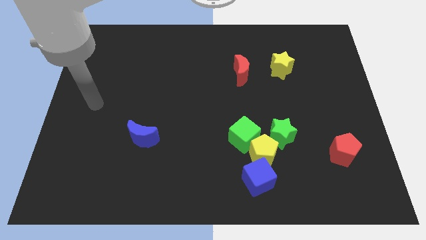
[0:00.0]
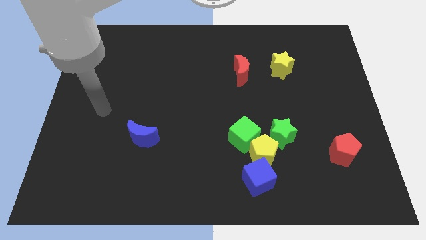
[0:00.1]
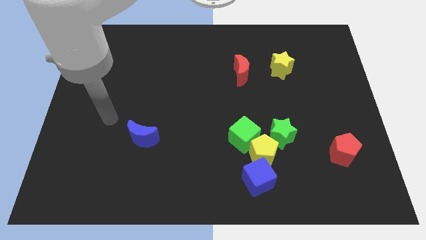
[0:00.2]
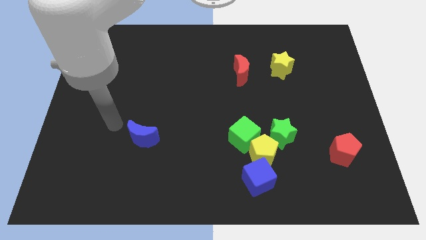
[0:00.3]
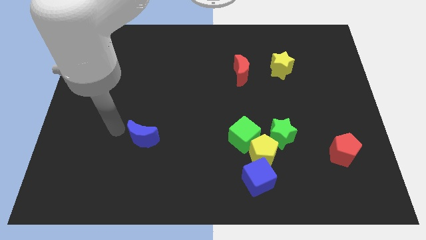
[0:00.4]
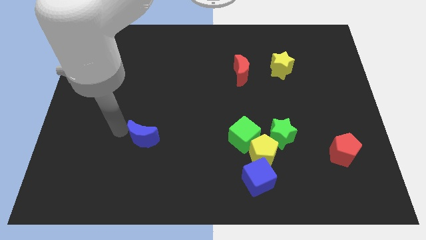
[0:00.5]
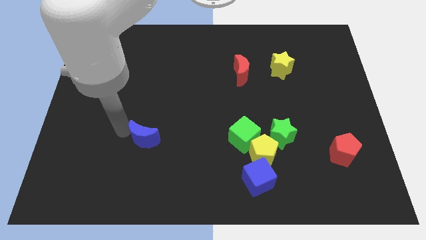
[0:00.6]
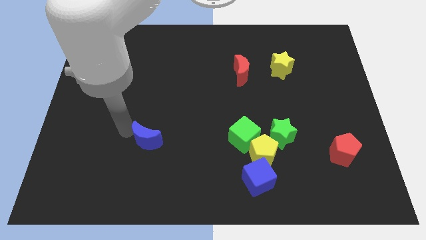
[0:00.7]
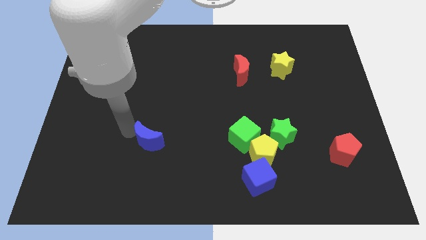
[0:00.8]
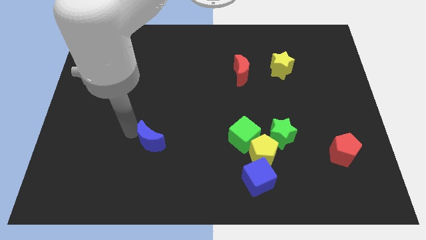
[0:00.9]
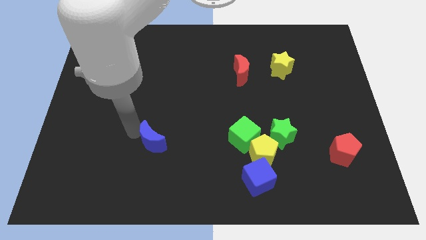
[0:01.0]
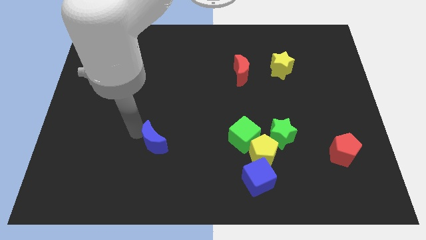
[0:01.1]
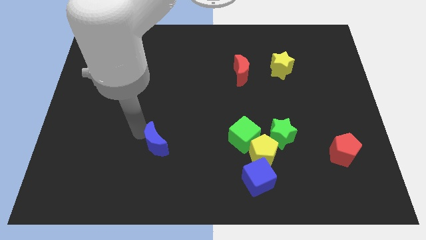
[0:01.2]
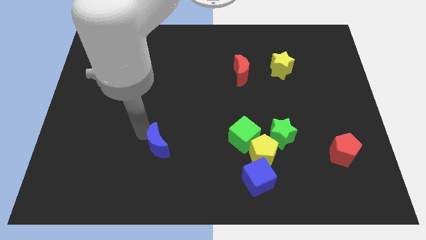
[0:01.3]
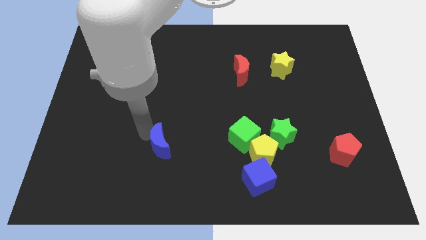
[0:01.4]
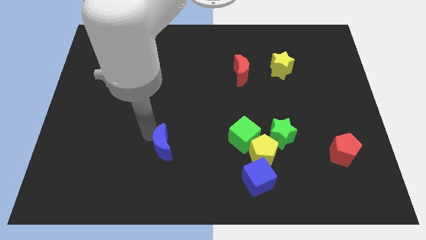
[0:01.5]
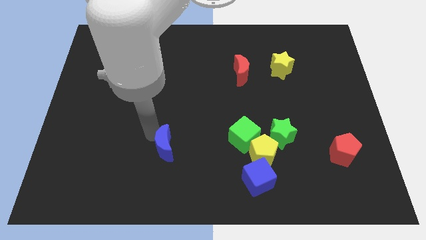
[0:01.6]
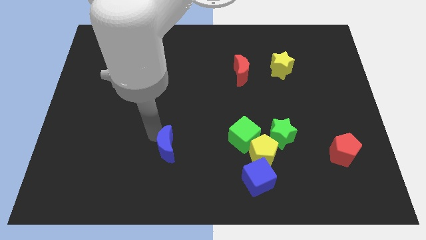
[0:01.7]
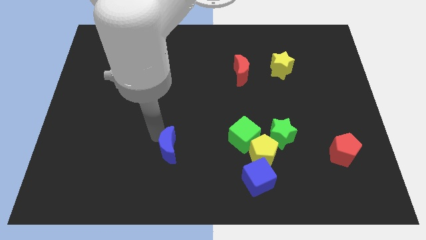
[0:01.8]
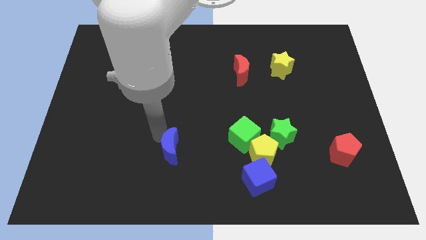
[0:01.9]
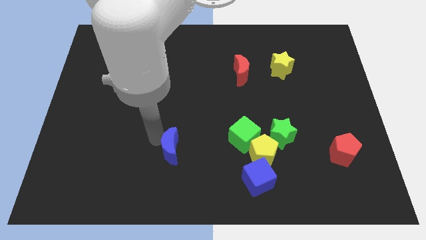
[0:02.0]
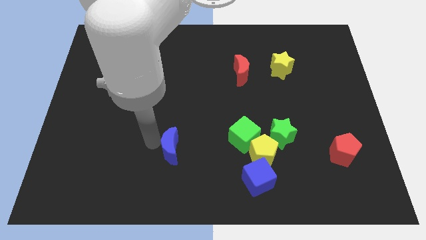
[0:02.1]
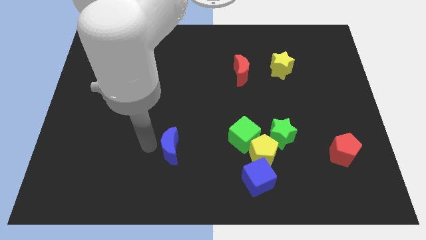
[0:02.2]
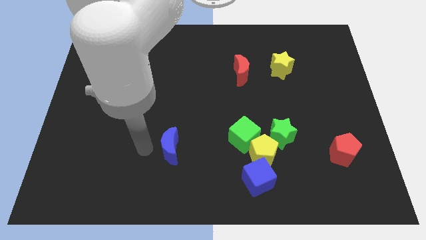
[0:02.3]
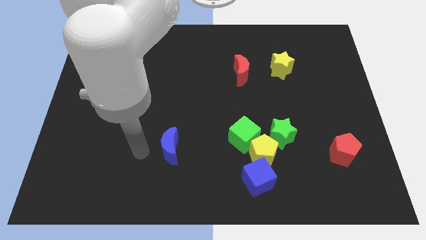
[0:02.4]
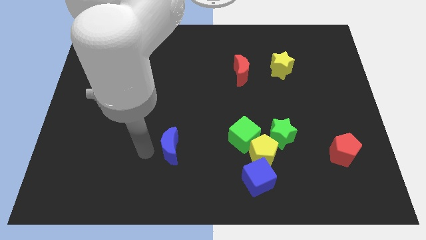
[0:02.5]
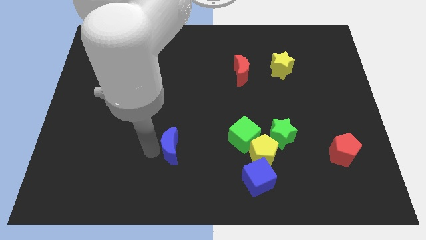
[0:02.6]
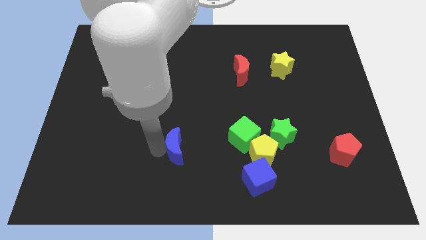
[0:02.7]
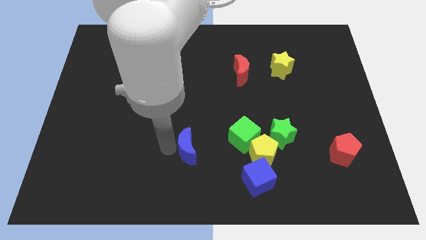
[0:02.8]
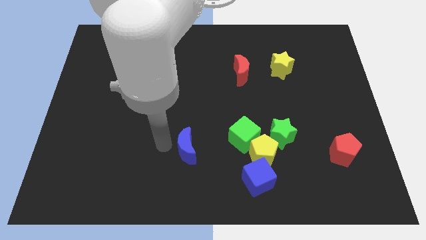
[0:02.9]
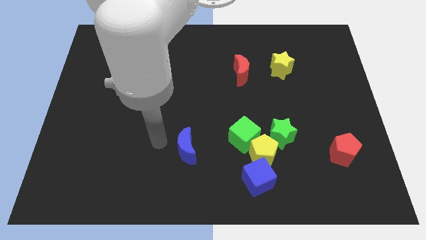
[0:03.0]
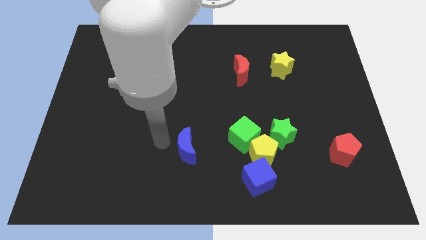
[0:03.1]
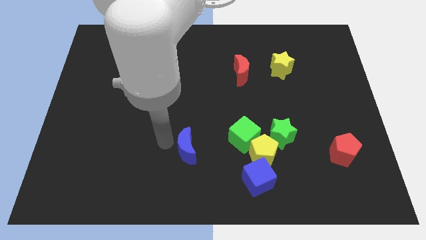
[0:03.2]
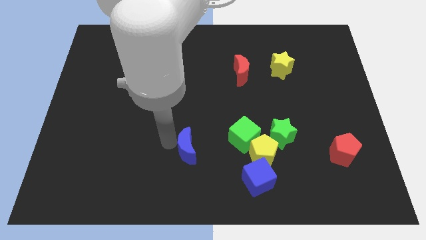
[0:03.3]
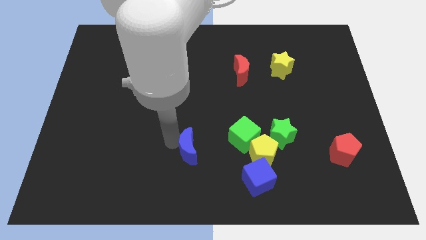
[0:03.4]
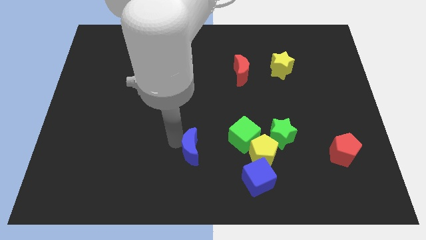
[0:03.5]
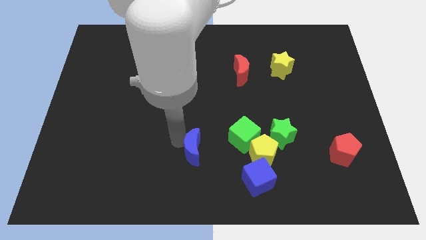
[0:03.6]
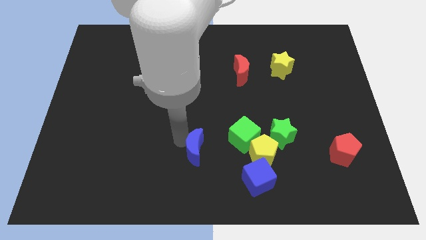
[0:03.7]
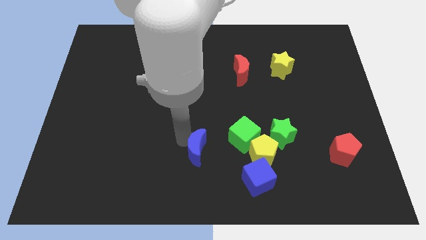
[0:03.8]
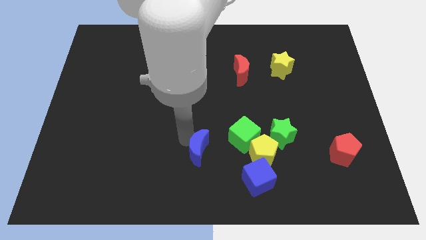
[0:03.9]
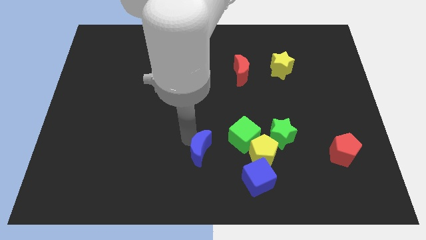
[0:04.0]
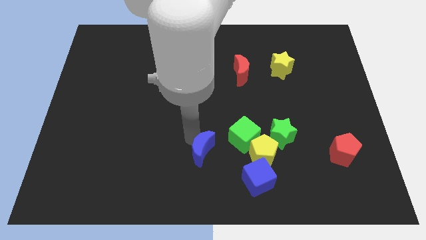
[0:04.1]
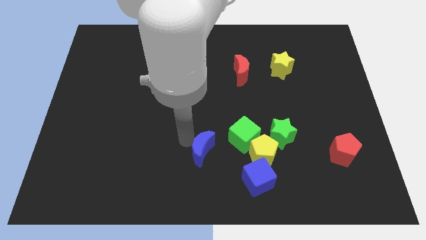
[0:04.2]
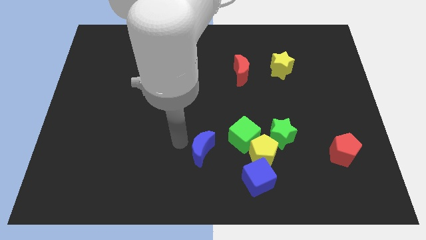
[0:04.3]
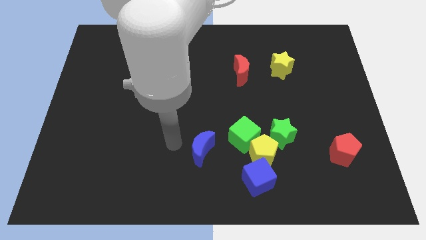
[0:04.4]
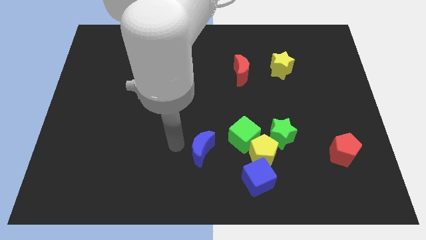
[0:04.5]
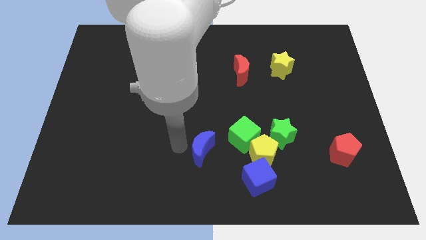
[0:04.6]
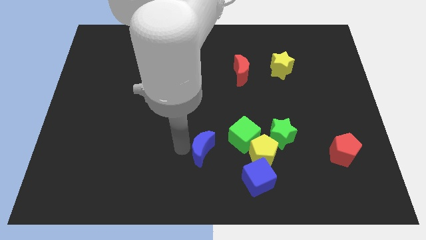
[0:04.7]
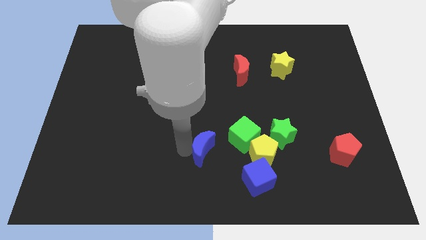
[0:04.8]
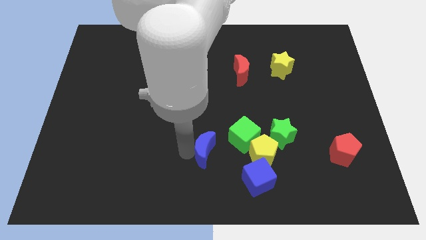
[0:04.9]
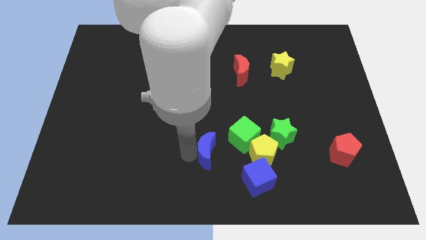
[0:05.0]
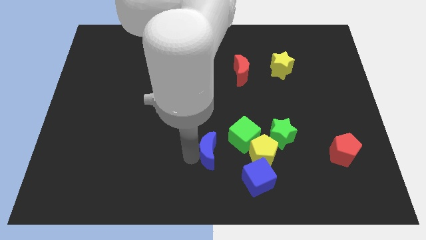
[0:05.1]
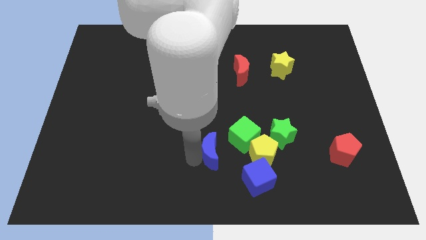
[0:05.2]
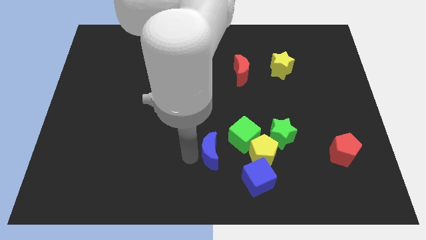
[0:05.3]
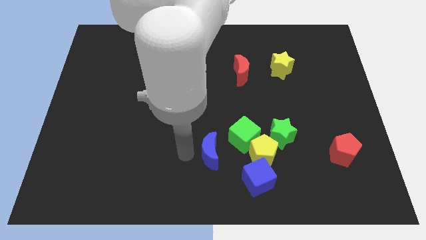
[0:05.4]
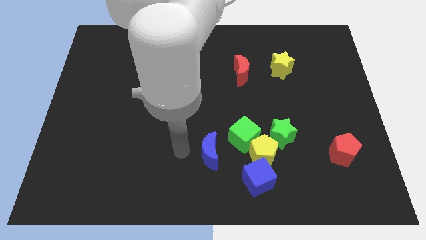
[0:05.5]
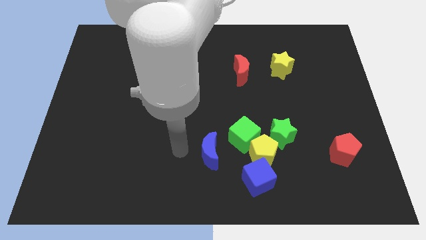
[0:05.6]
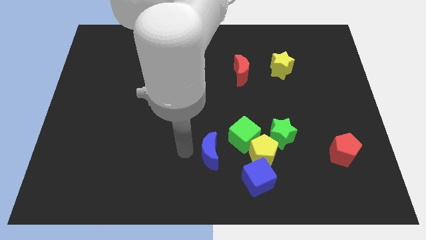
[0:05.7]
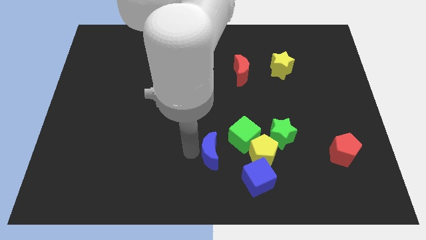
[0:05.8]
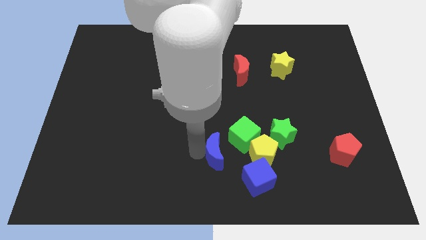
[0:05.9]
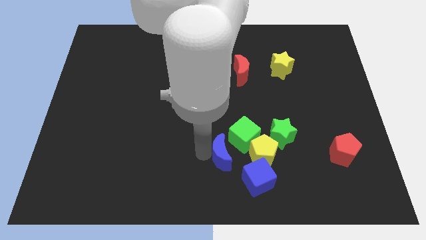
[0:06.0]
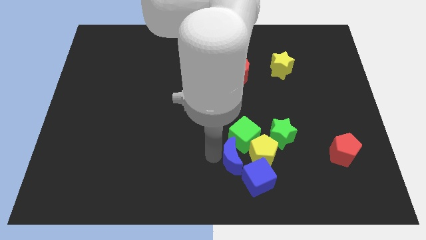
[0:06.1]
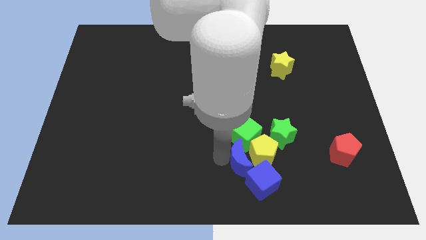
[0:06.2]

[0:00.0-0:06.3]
put the blue moon towards the yellow pentagon

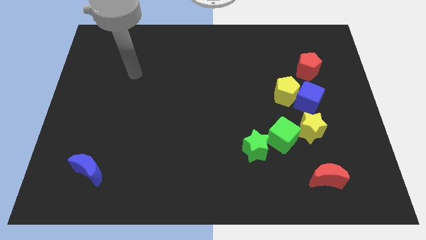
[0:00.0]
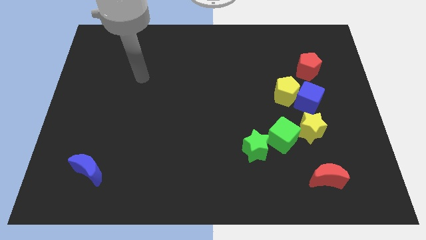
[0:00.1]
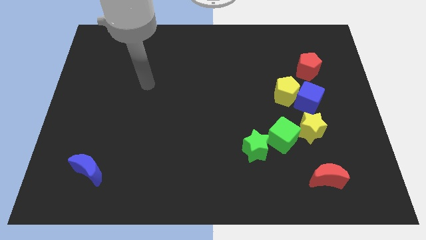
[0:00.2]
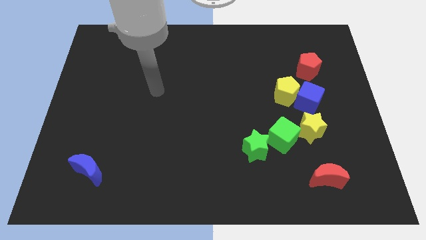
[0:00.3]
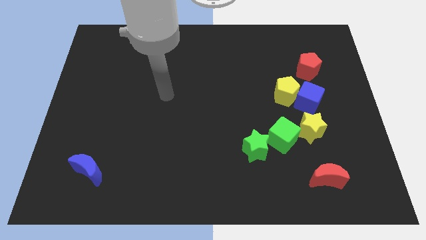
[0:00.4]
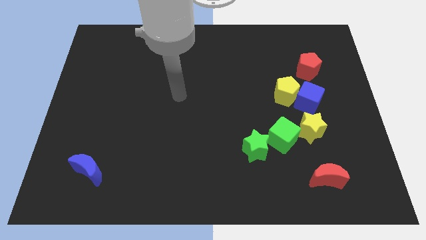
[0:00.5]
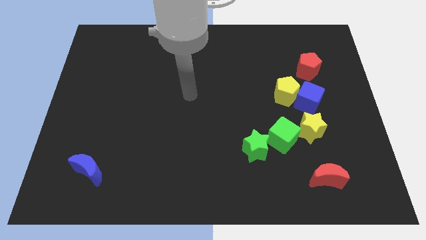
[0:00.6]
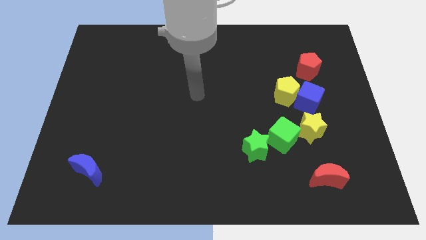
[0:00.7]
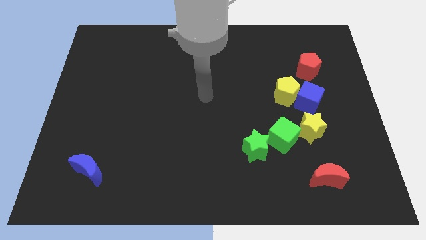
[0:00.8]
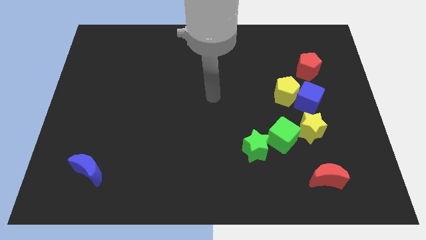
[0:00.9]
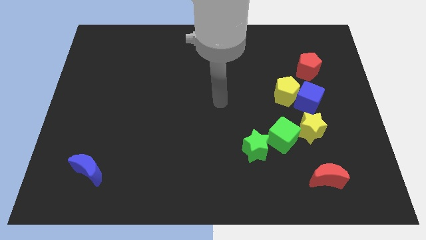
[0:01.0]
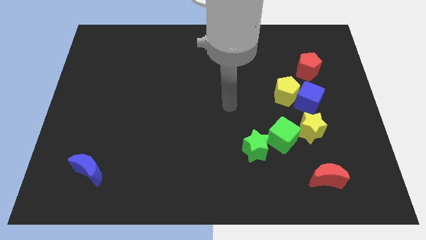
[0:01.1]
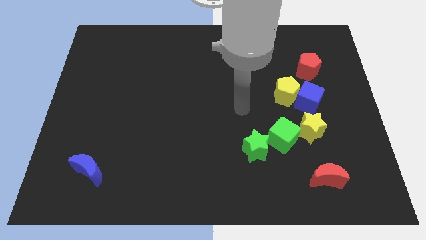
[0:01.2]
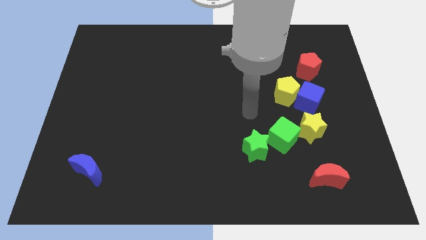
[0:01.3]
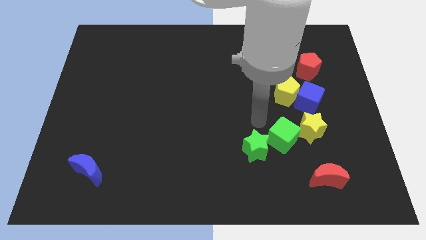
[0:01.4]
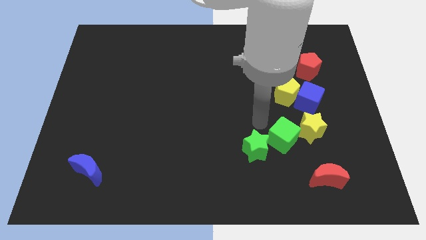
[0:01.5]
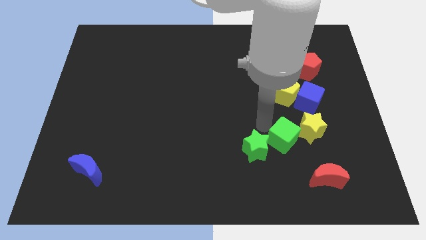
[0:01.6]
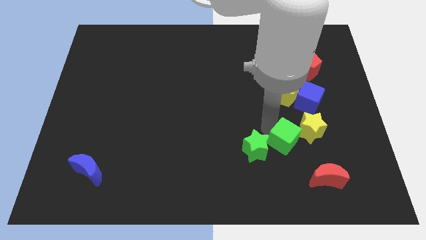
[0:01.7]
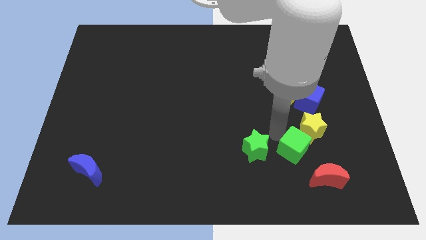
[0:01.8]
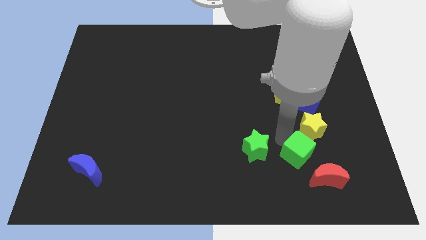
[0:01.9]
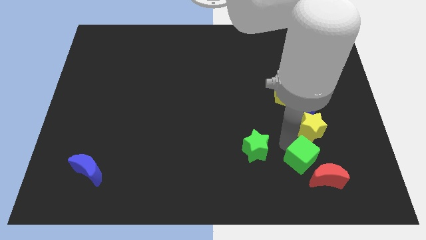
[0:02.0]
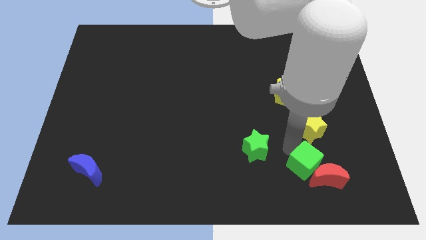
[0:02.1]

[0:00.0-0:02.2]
push the green cube to the red moon
